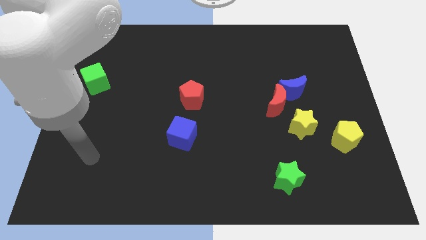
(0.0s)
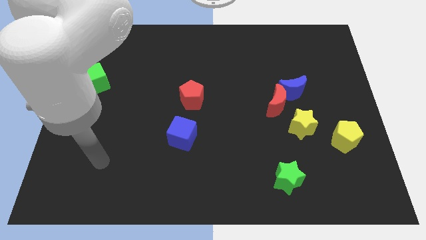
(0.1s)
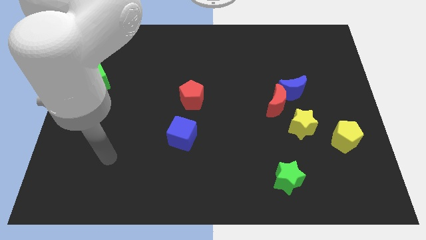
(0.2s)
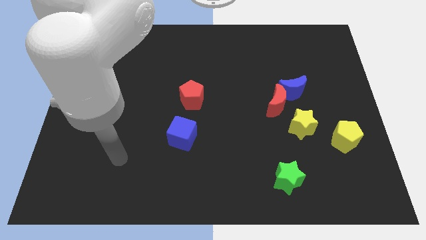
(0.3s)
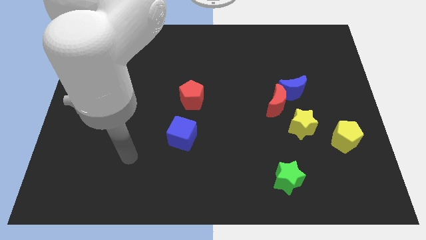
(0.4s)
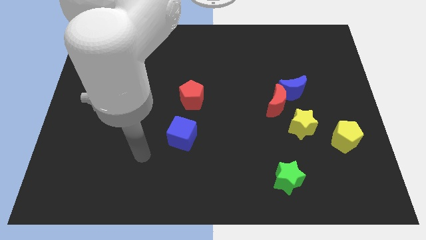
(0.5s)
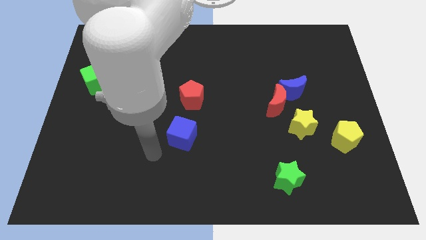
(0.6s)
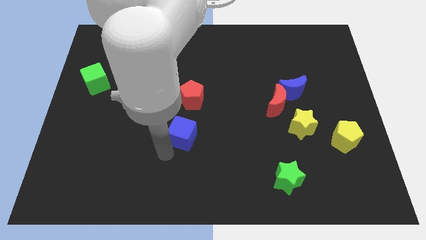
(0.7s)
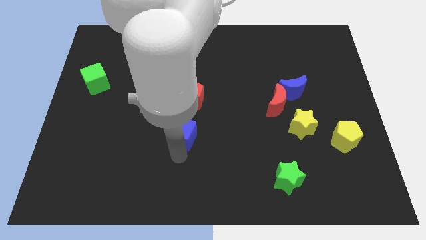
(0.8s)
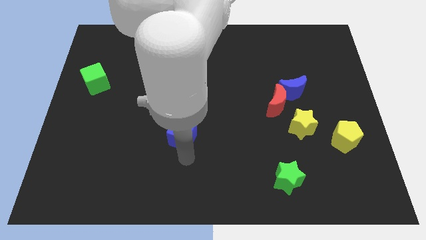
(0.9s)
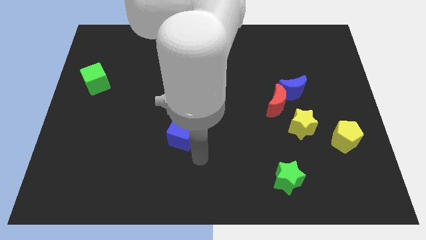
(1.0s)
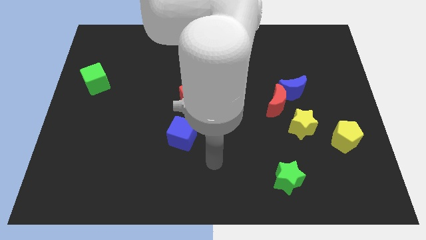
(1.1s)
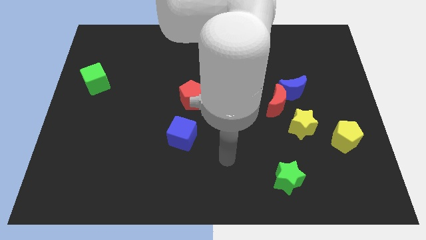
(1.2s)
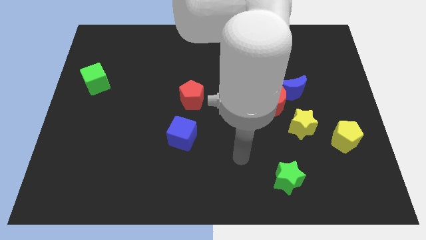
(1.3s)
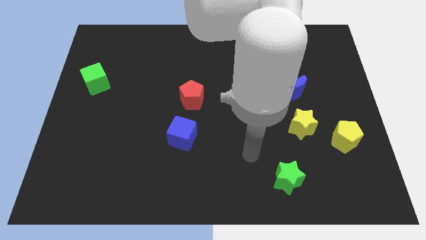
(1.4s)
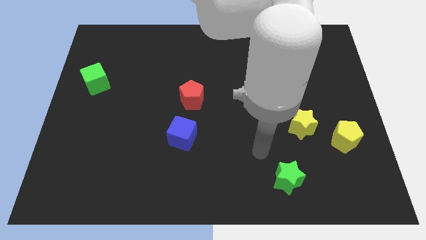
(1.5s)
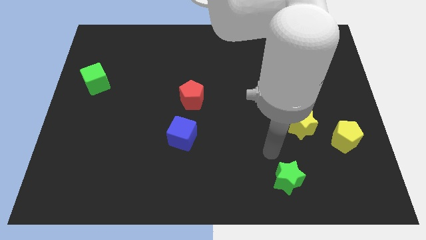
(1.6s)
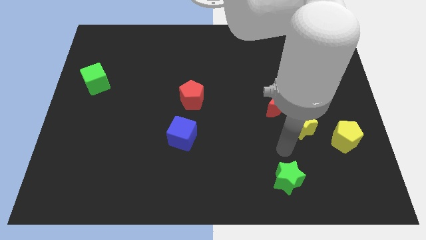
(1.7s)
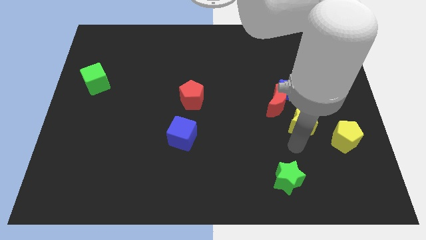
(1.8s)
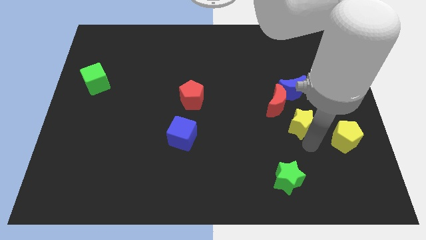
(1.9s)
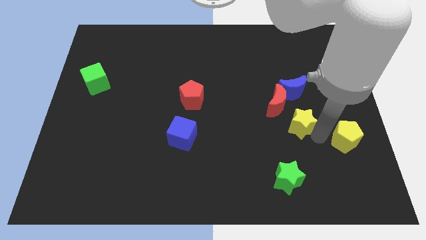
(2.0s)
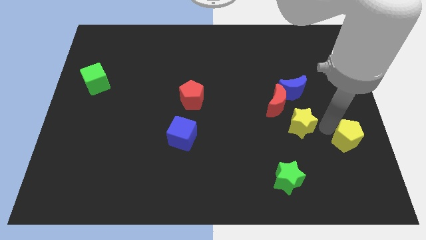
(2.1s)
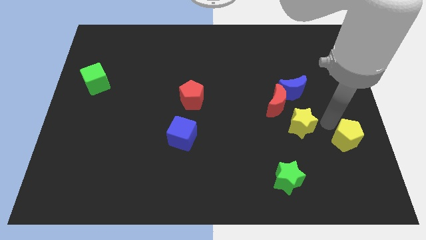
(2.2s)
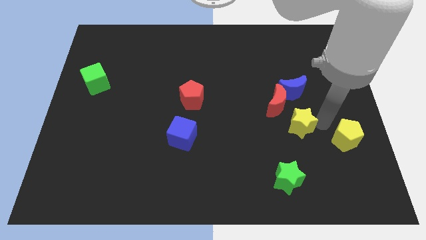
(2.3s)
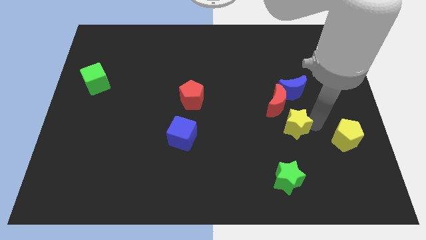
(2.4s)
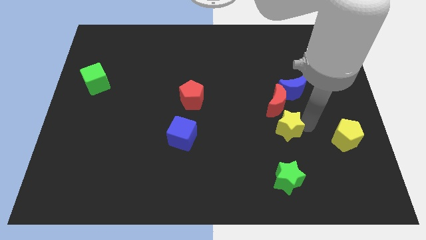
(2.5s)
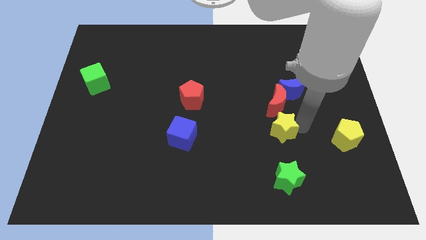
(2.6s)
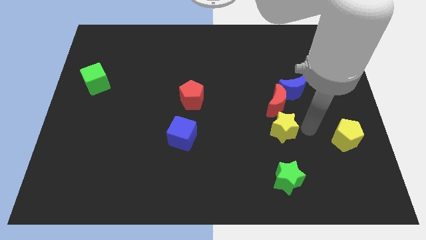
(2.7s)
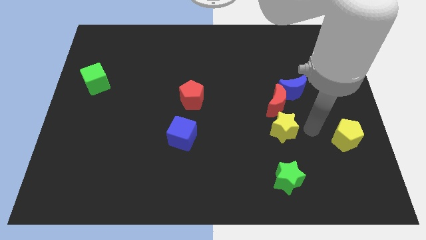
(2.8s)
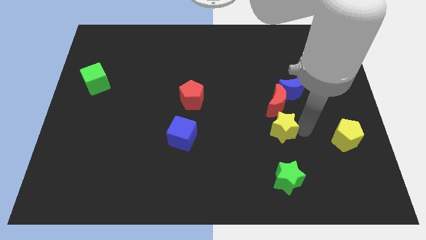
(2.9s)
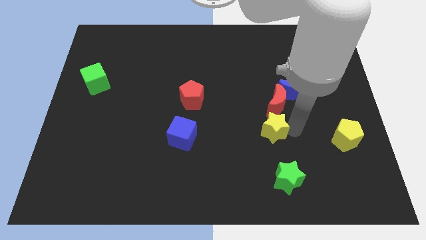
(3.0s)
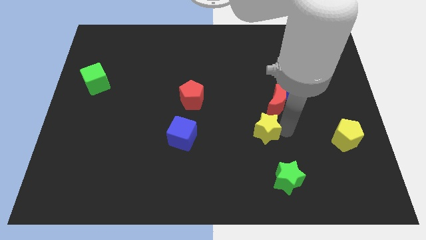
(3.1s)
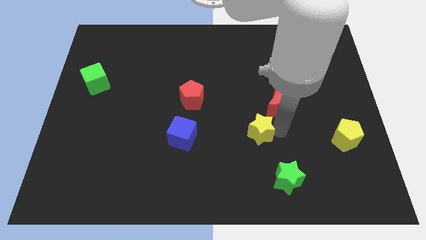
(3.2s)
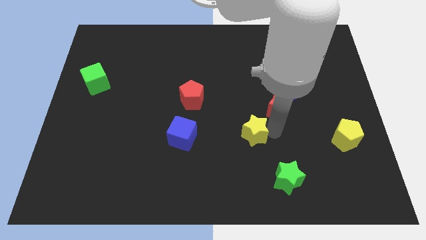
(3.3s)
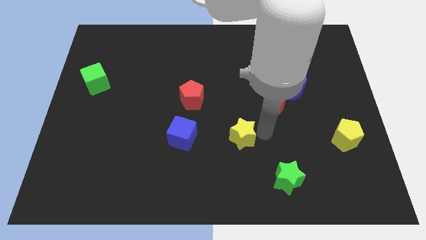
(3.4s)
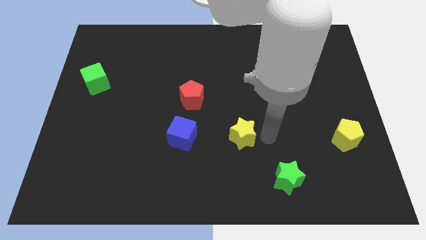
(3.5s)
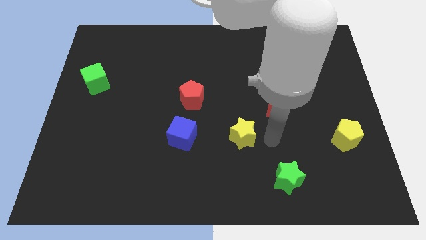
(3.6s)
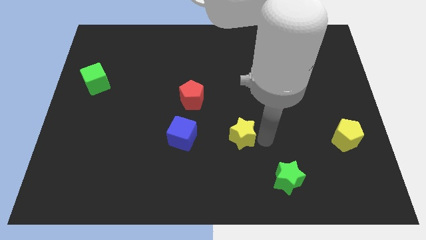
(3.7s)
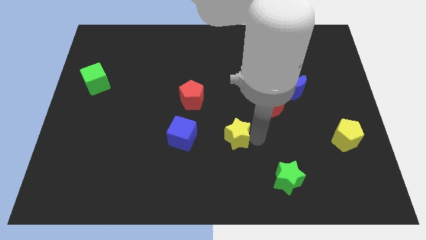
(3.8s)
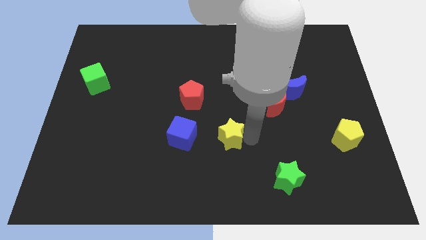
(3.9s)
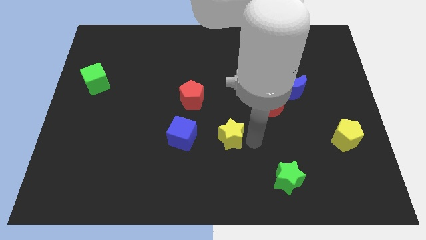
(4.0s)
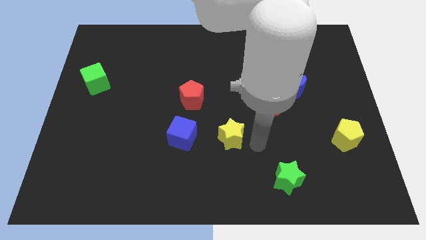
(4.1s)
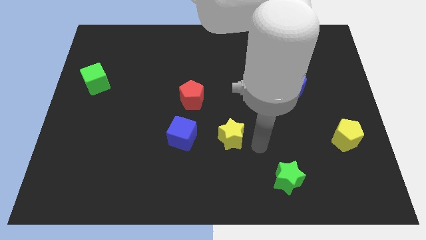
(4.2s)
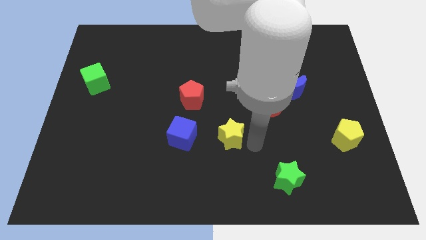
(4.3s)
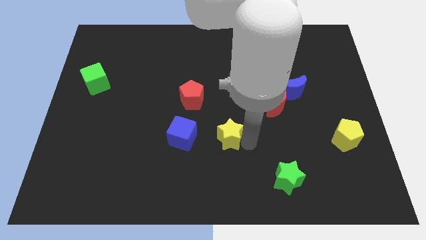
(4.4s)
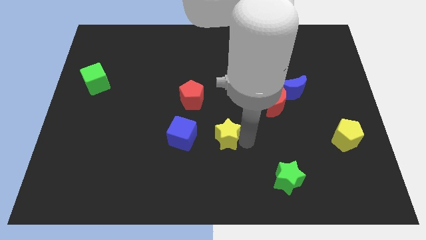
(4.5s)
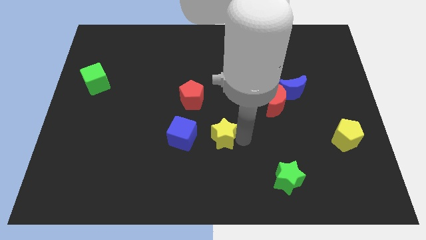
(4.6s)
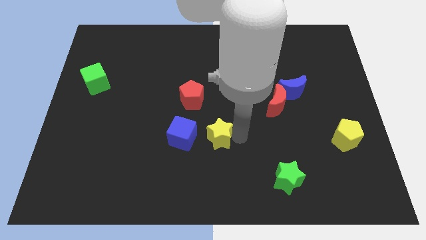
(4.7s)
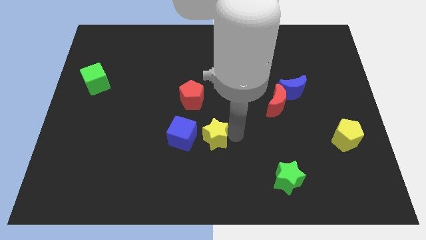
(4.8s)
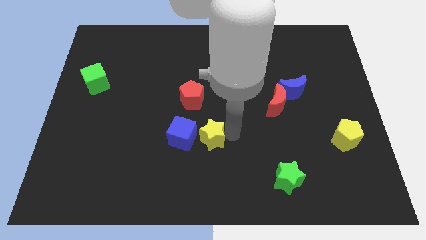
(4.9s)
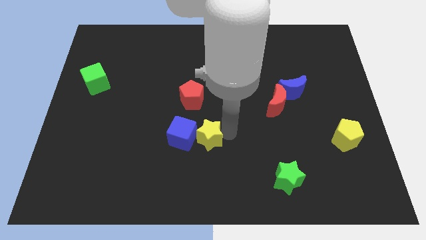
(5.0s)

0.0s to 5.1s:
slide the yellow star next to the blue cube

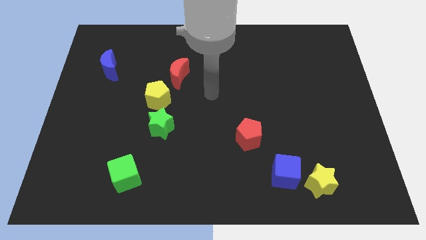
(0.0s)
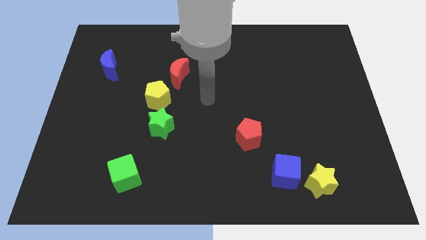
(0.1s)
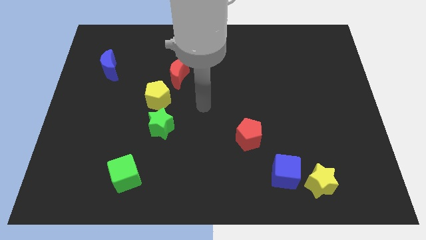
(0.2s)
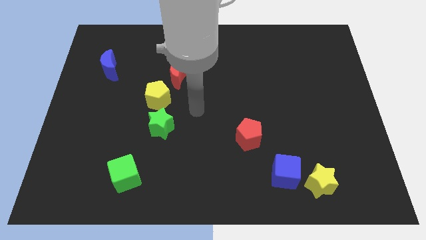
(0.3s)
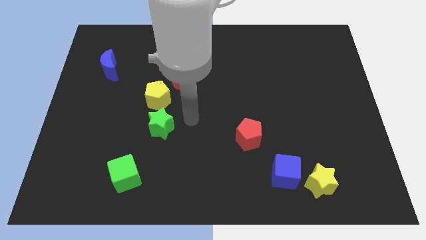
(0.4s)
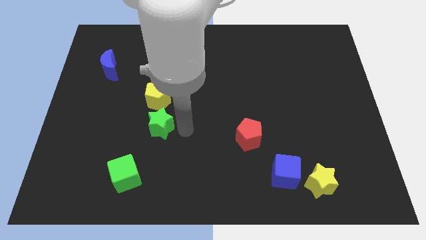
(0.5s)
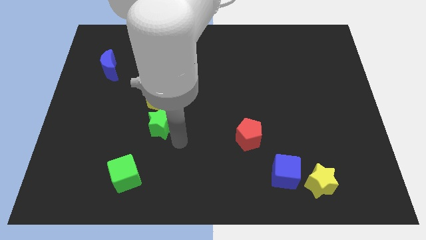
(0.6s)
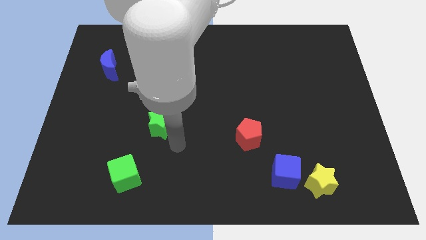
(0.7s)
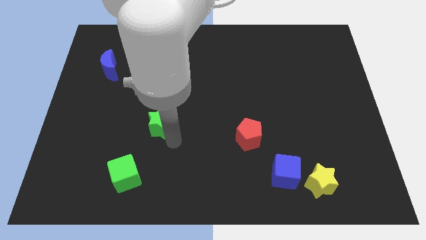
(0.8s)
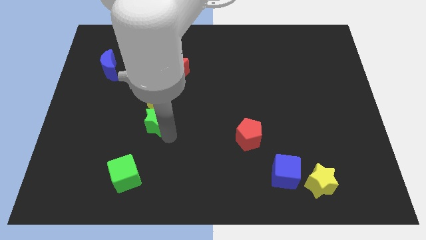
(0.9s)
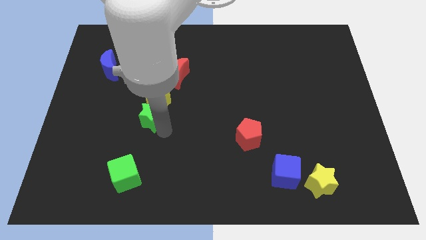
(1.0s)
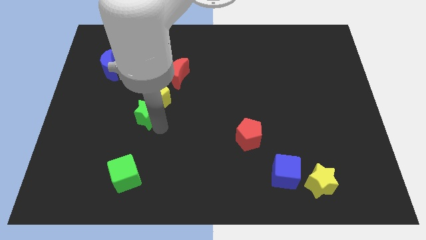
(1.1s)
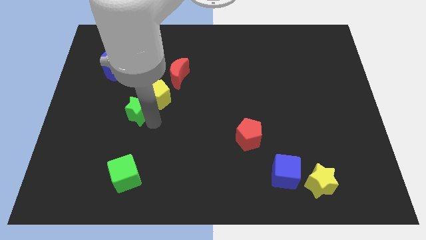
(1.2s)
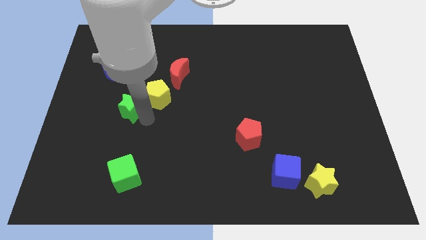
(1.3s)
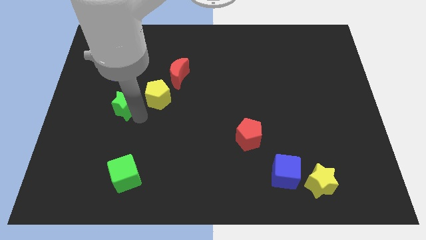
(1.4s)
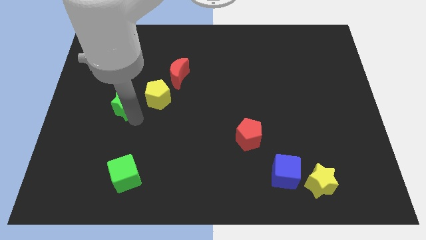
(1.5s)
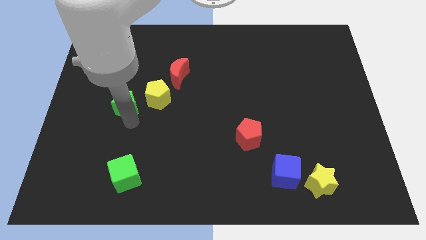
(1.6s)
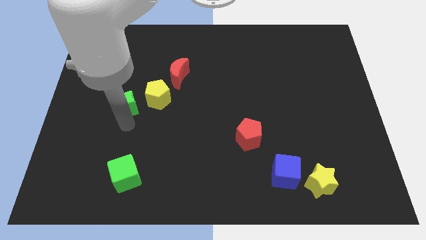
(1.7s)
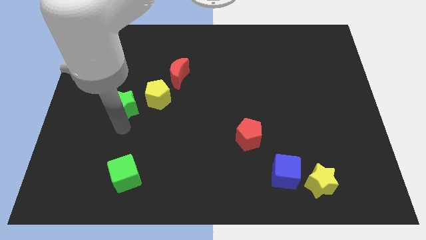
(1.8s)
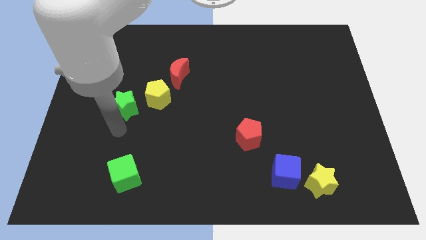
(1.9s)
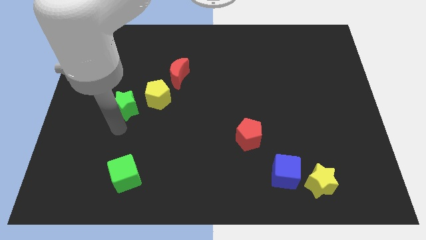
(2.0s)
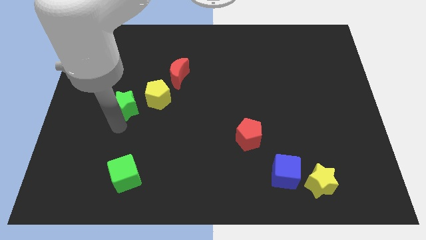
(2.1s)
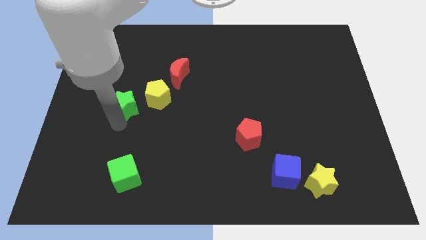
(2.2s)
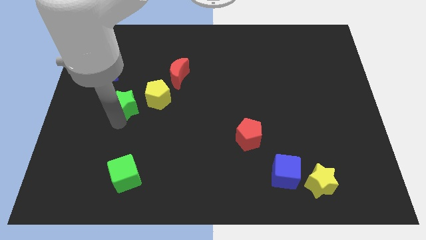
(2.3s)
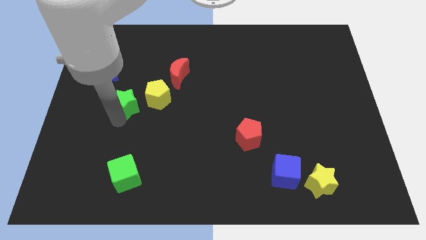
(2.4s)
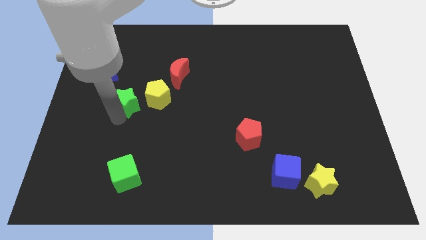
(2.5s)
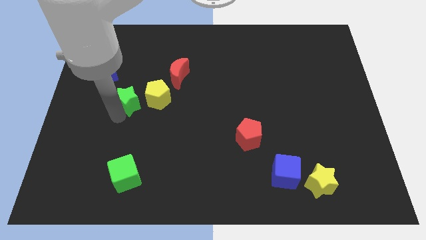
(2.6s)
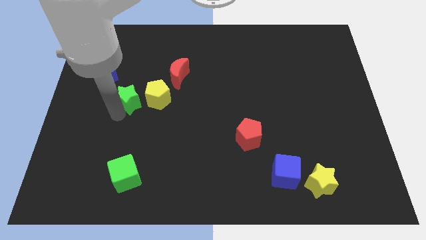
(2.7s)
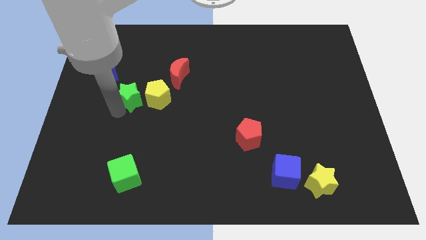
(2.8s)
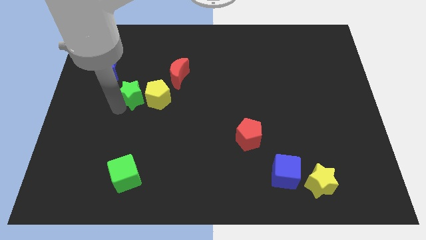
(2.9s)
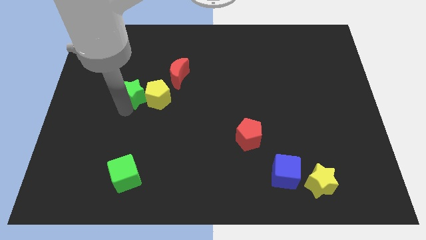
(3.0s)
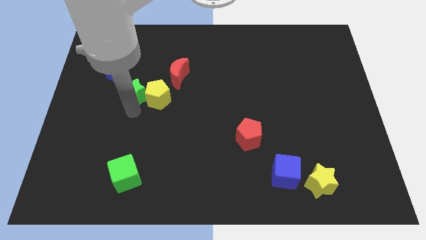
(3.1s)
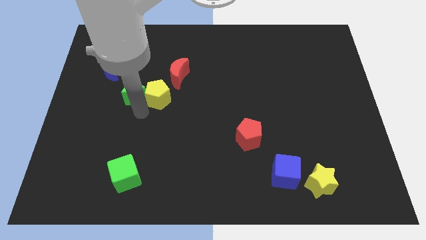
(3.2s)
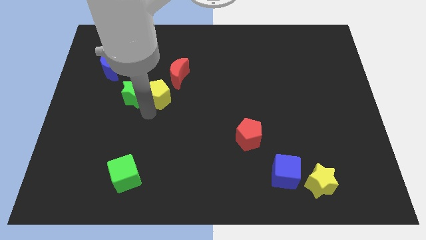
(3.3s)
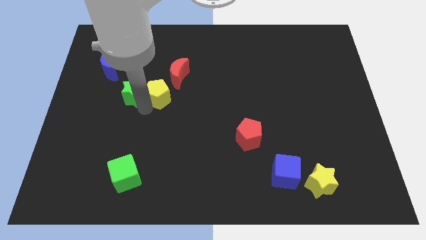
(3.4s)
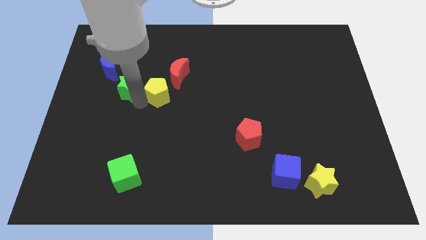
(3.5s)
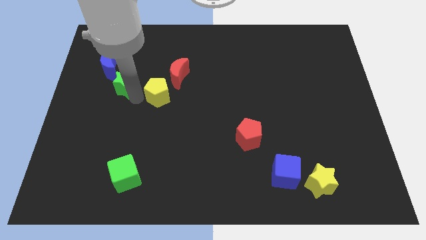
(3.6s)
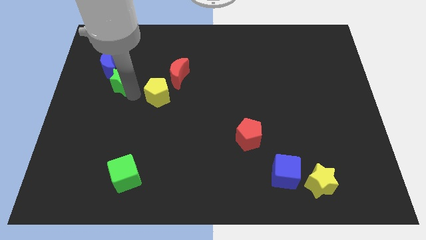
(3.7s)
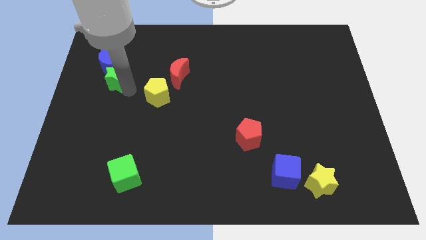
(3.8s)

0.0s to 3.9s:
slide the green star to the blue moon
